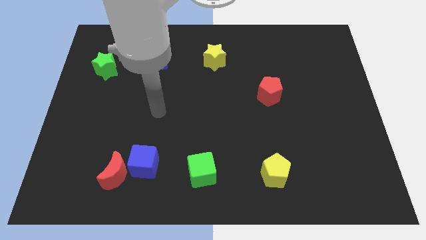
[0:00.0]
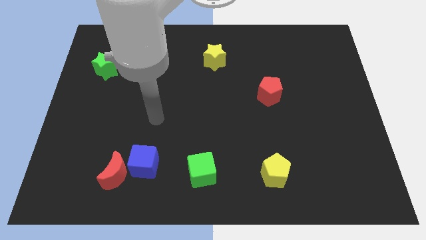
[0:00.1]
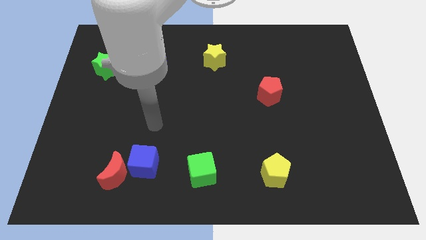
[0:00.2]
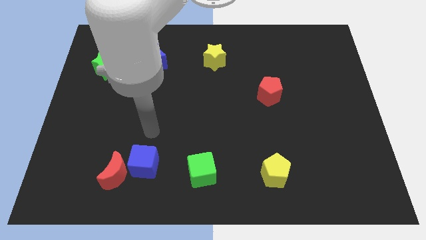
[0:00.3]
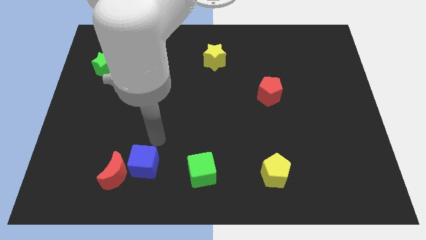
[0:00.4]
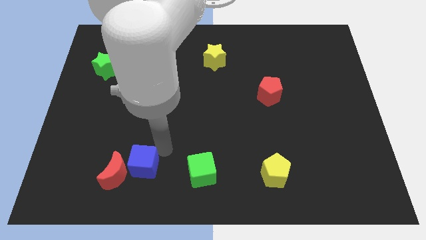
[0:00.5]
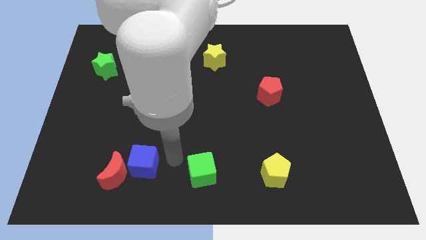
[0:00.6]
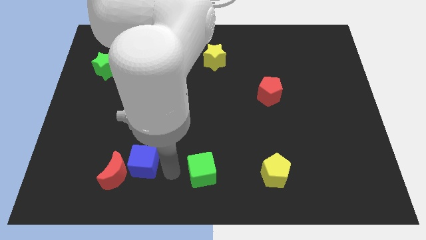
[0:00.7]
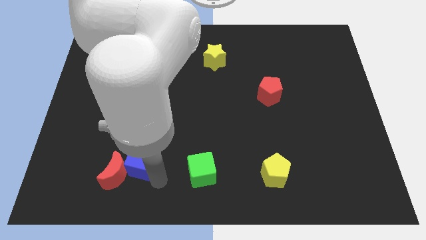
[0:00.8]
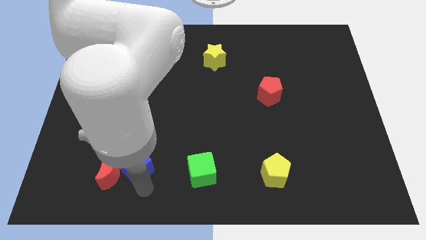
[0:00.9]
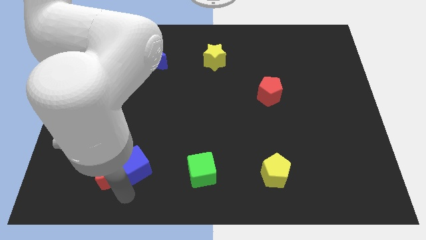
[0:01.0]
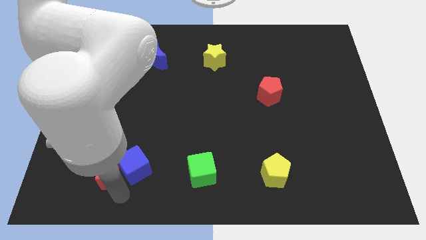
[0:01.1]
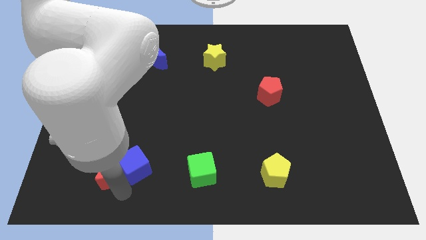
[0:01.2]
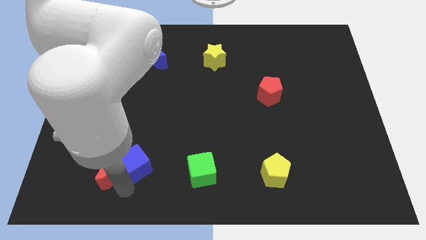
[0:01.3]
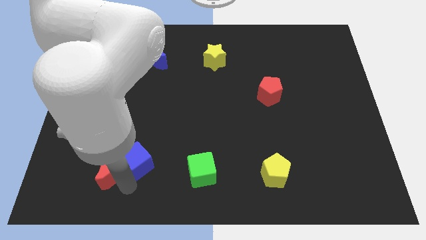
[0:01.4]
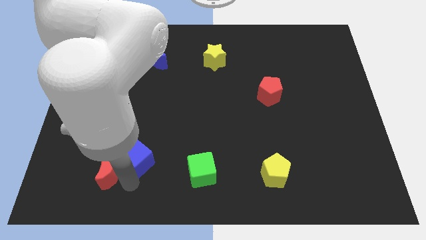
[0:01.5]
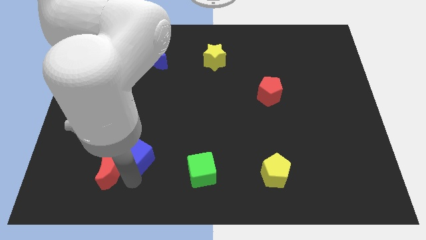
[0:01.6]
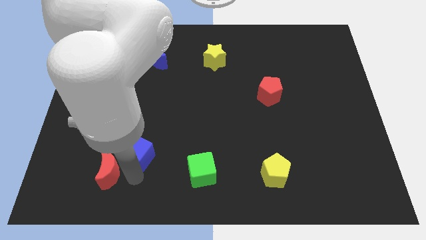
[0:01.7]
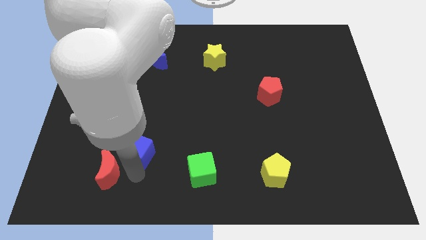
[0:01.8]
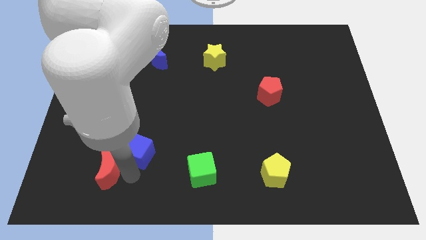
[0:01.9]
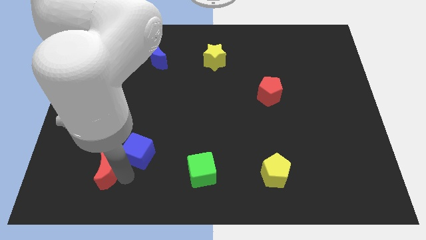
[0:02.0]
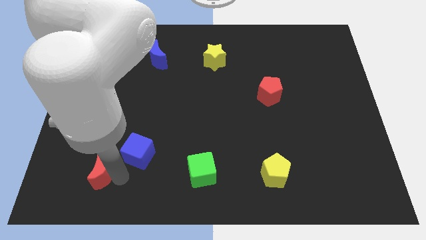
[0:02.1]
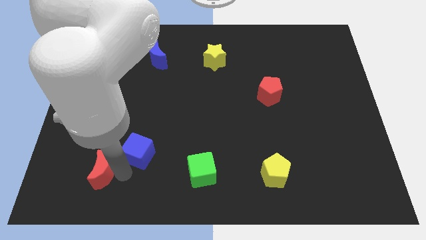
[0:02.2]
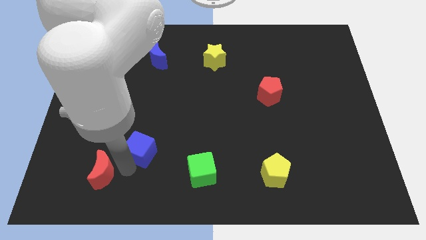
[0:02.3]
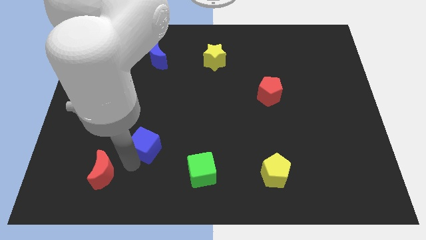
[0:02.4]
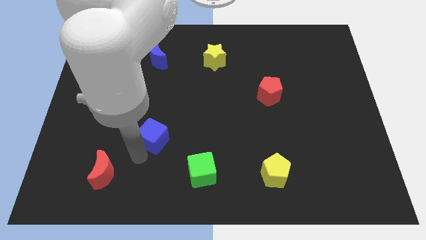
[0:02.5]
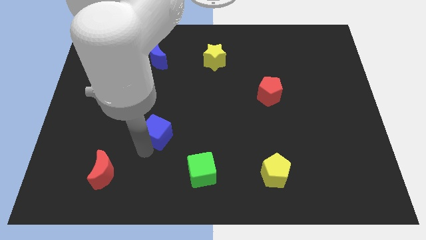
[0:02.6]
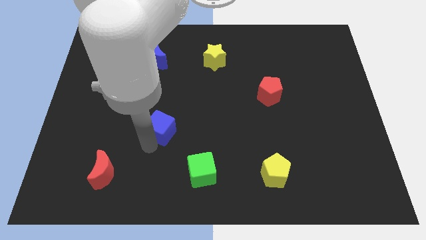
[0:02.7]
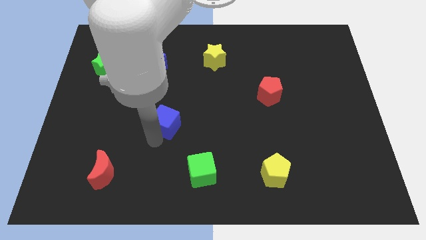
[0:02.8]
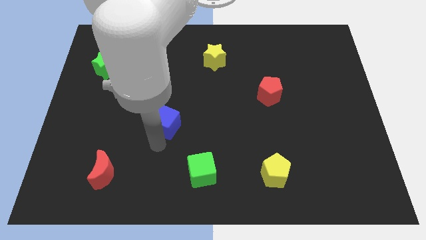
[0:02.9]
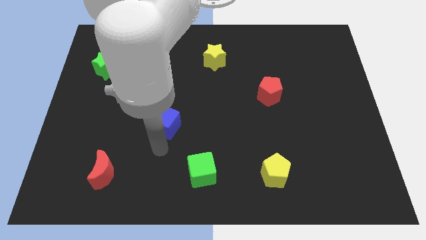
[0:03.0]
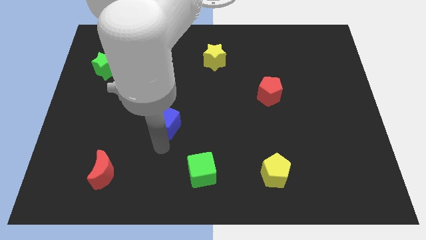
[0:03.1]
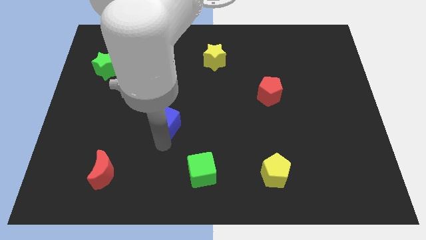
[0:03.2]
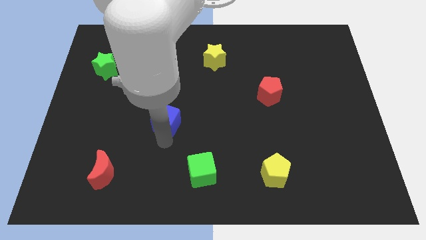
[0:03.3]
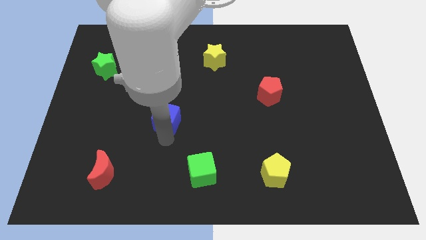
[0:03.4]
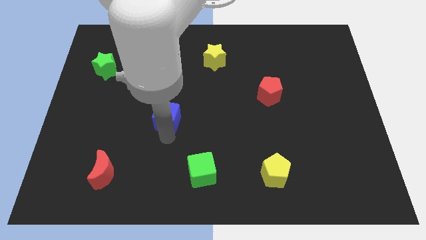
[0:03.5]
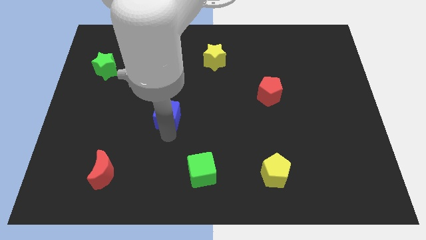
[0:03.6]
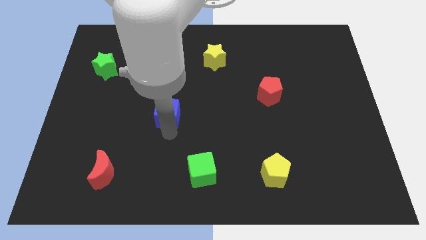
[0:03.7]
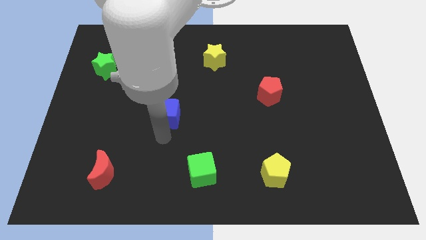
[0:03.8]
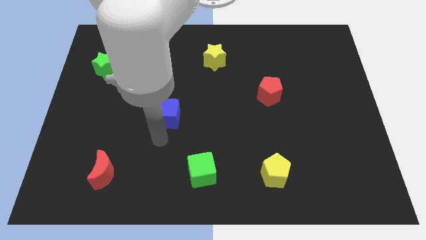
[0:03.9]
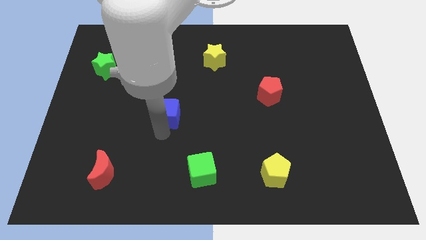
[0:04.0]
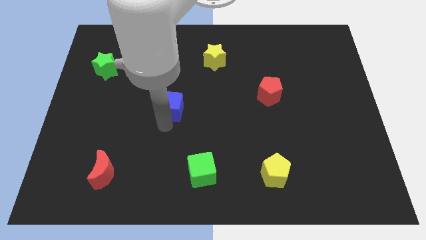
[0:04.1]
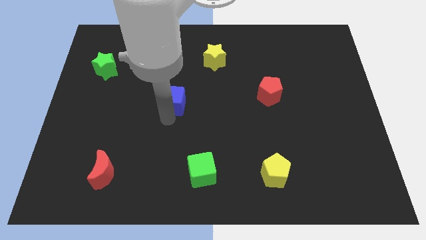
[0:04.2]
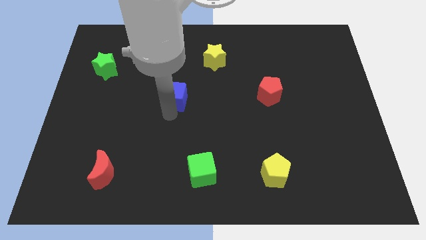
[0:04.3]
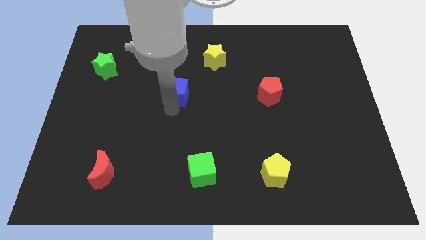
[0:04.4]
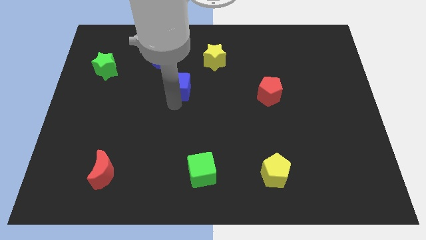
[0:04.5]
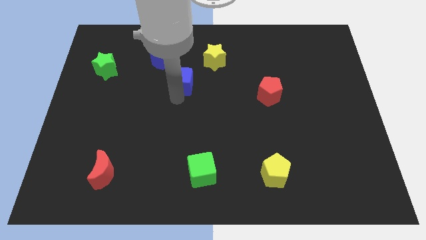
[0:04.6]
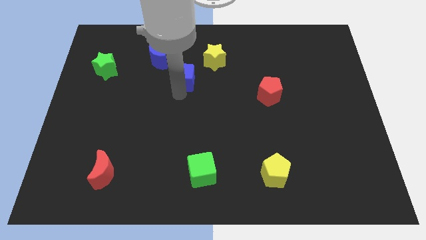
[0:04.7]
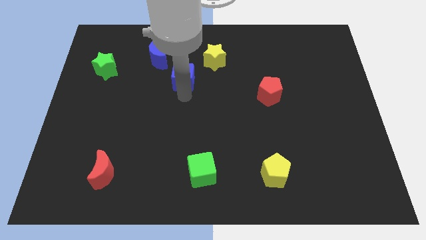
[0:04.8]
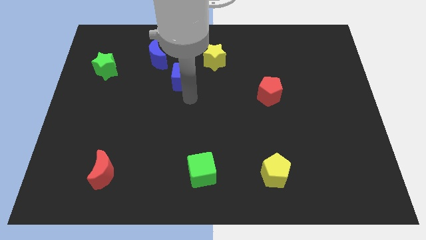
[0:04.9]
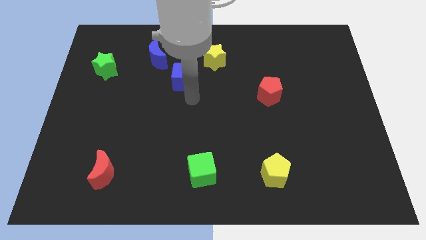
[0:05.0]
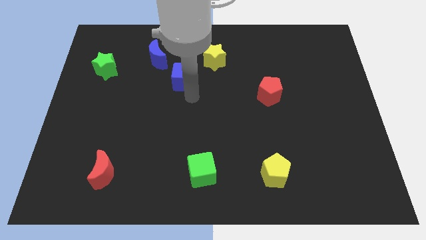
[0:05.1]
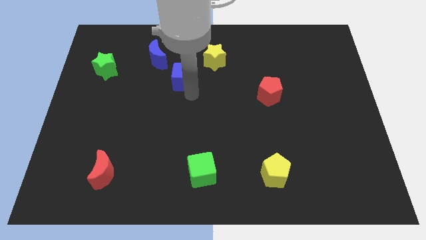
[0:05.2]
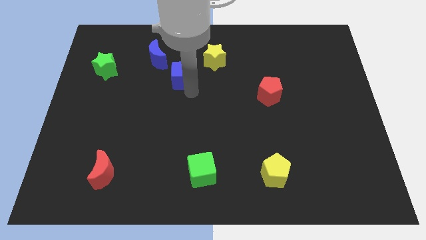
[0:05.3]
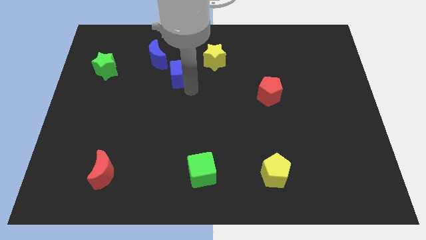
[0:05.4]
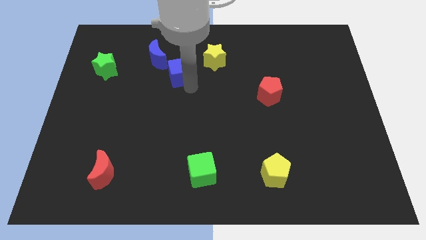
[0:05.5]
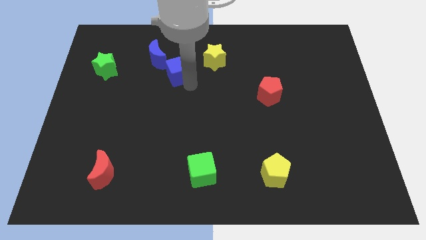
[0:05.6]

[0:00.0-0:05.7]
slide the blue cube left of the yellow star

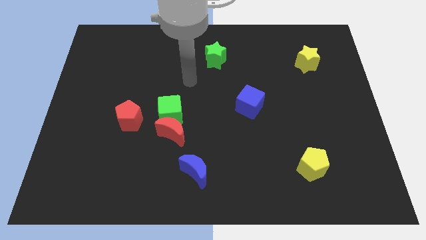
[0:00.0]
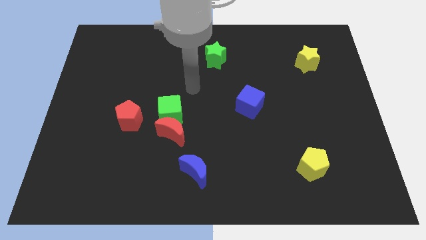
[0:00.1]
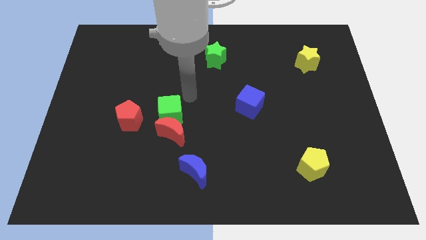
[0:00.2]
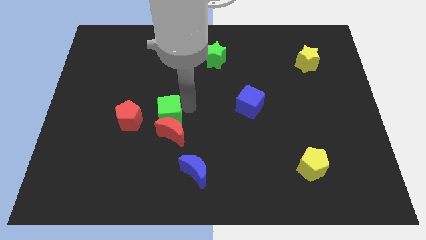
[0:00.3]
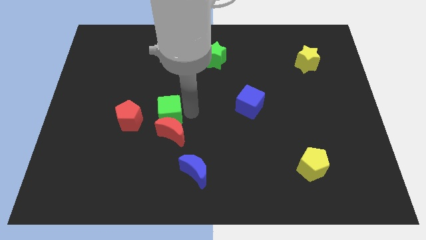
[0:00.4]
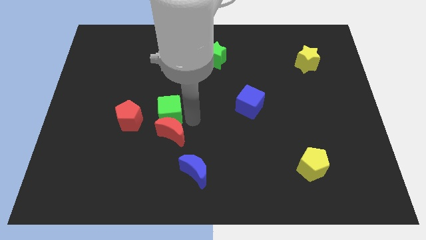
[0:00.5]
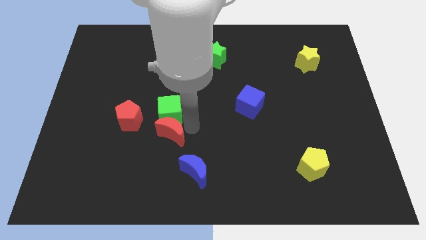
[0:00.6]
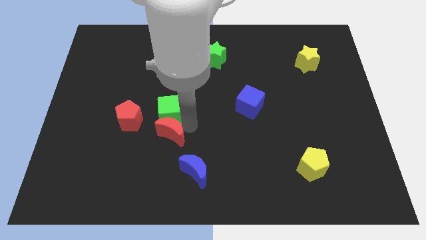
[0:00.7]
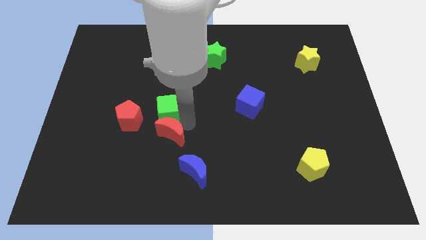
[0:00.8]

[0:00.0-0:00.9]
slide the green cube diagonally up and to the right of the red pentagon

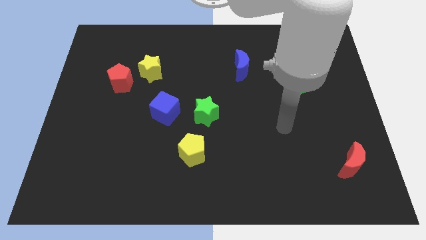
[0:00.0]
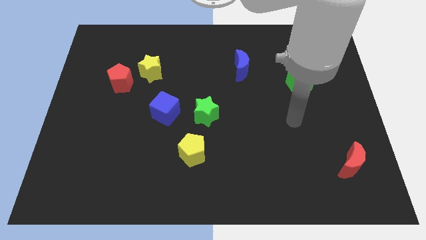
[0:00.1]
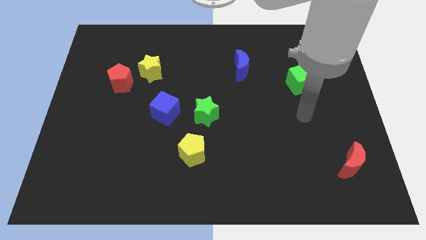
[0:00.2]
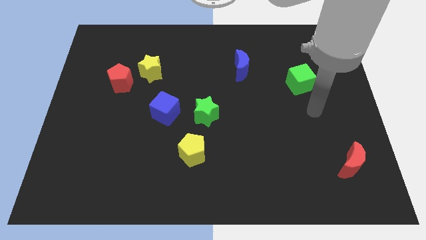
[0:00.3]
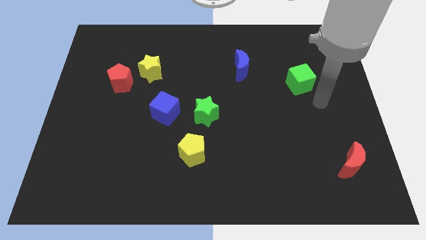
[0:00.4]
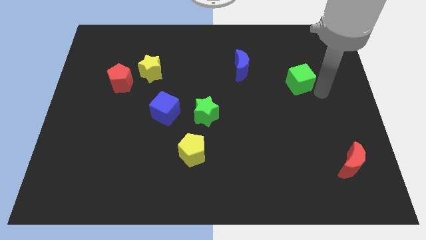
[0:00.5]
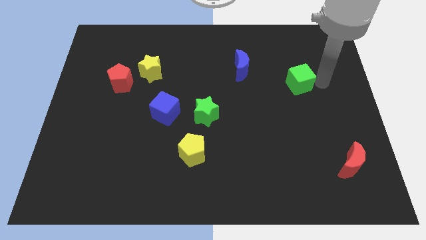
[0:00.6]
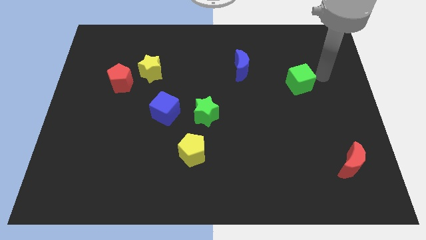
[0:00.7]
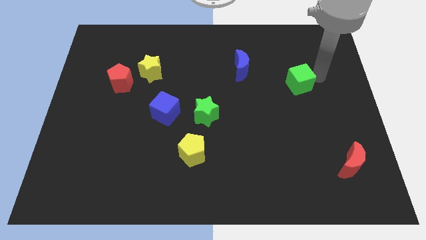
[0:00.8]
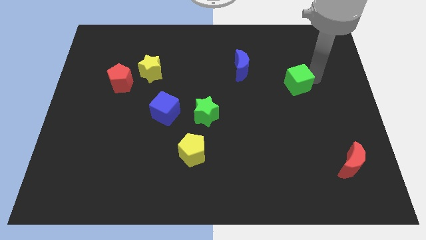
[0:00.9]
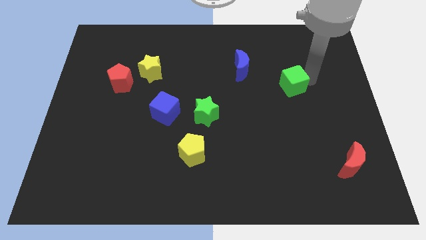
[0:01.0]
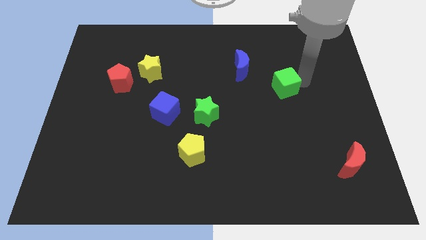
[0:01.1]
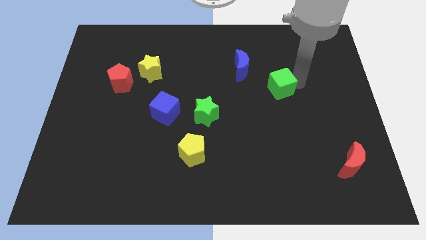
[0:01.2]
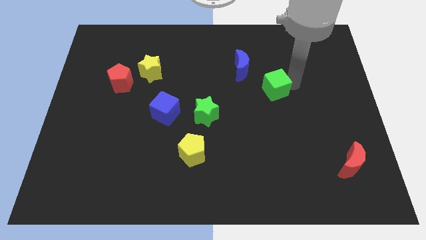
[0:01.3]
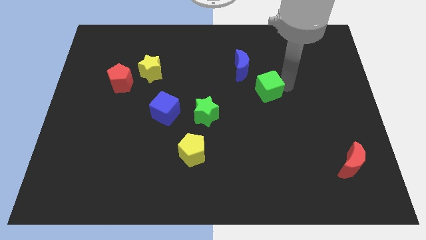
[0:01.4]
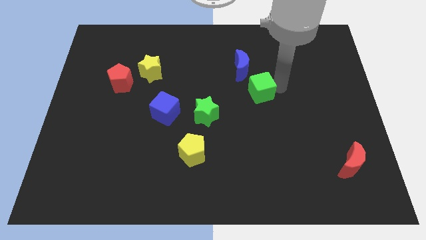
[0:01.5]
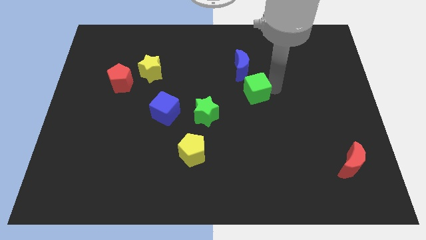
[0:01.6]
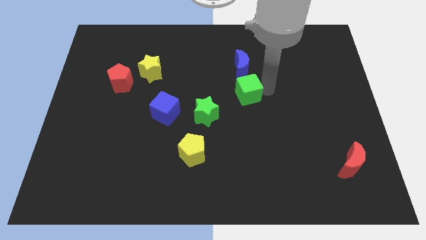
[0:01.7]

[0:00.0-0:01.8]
move the green cube to the top right side of the green star
